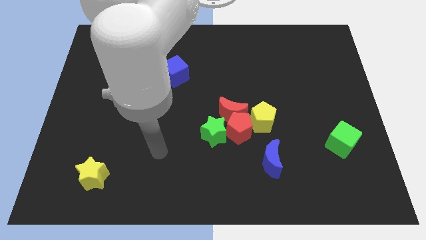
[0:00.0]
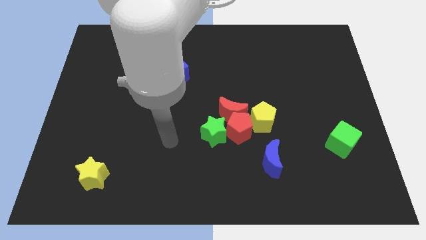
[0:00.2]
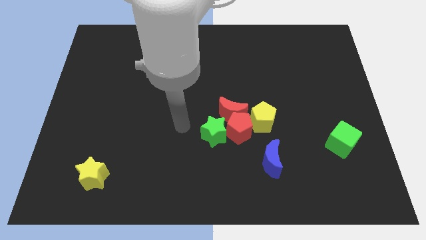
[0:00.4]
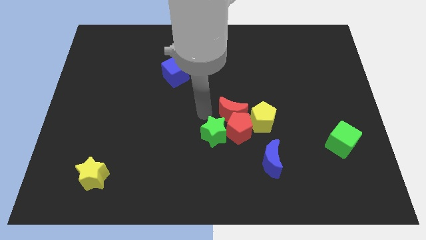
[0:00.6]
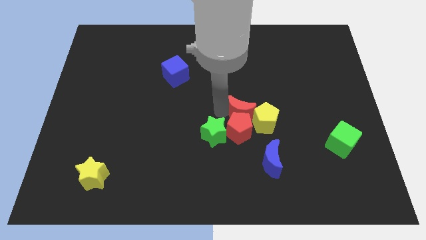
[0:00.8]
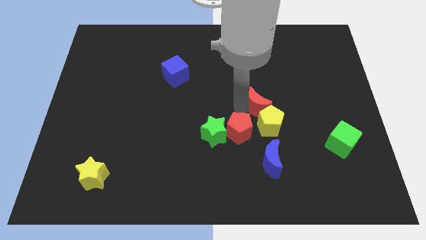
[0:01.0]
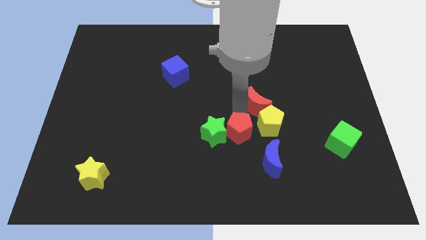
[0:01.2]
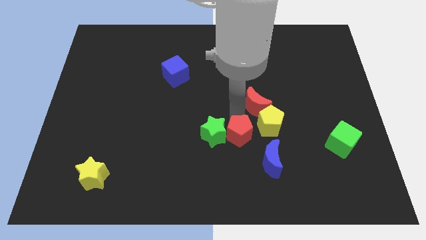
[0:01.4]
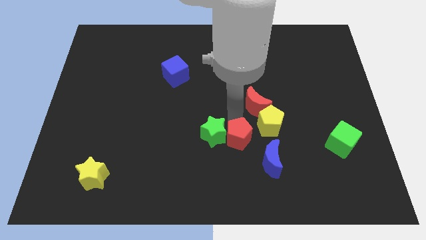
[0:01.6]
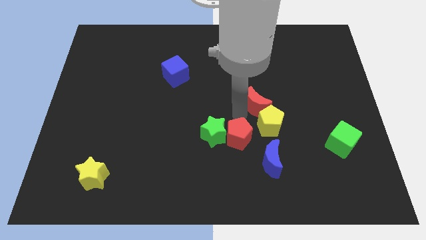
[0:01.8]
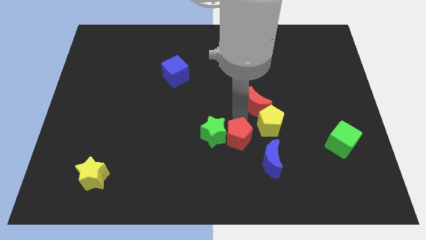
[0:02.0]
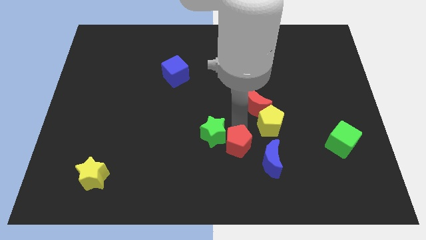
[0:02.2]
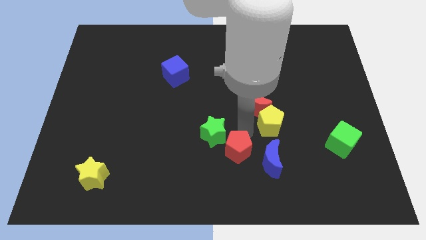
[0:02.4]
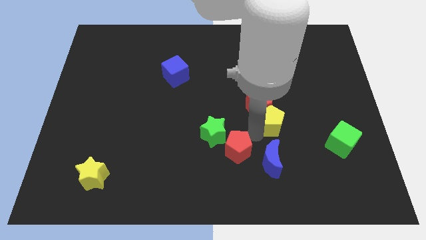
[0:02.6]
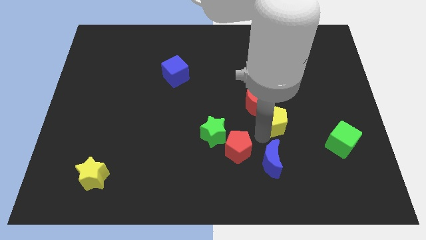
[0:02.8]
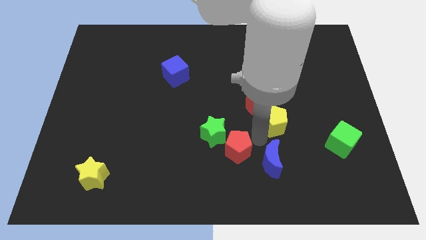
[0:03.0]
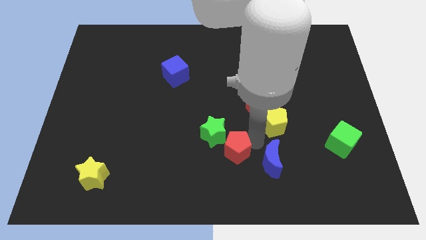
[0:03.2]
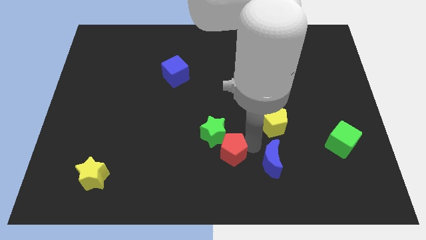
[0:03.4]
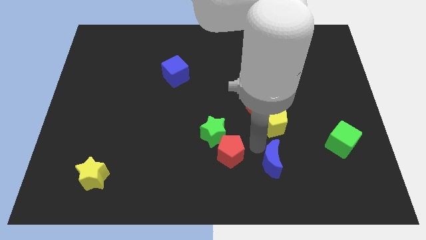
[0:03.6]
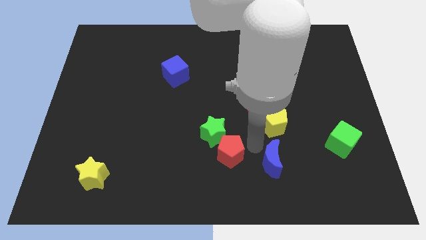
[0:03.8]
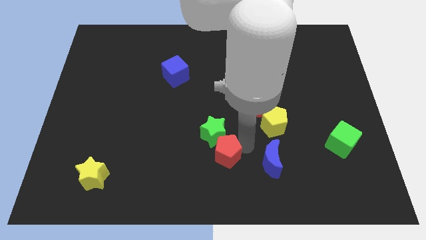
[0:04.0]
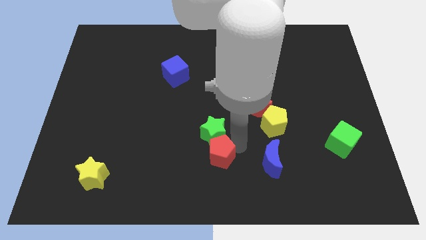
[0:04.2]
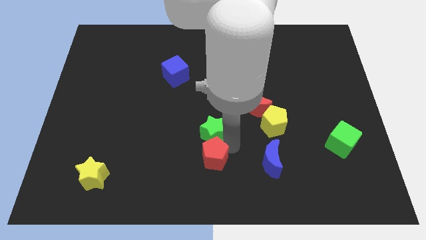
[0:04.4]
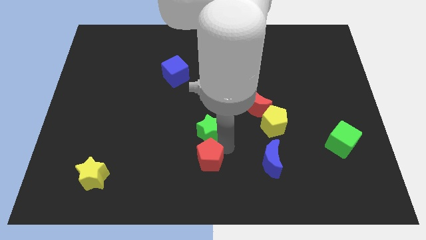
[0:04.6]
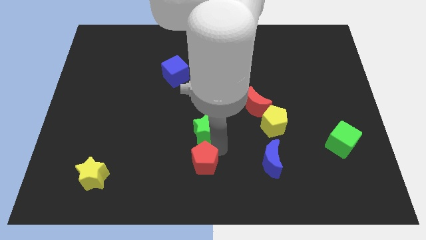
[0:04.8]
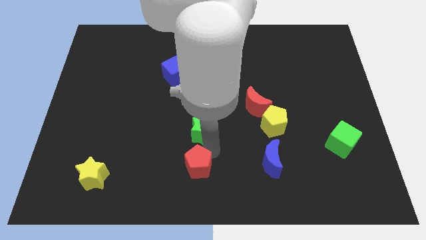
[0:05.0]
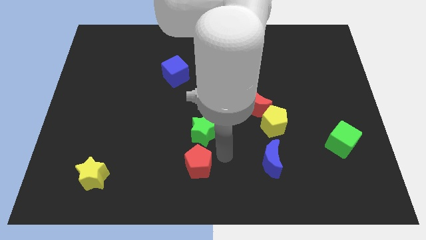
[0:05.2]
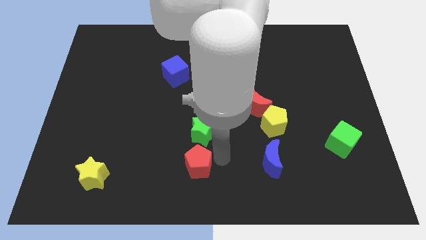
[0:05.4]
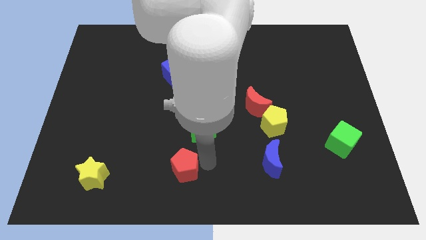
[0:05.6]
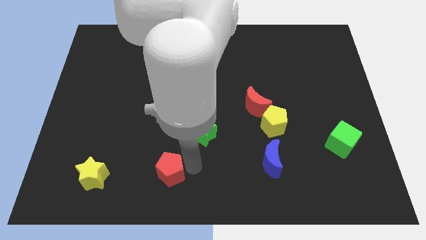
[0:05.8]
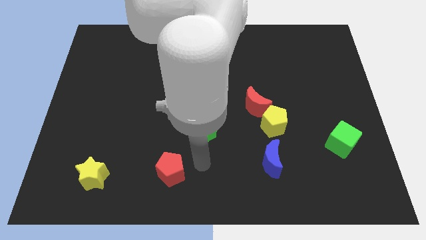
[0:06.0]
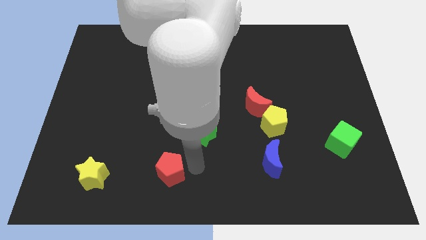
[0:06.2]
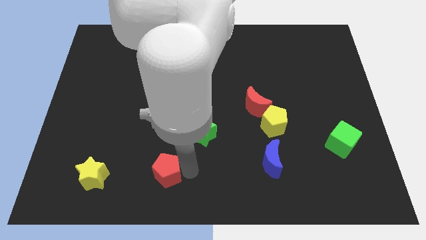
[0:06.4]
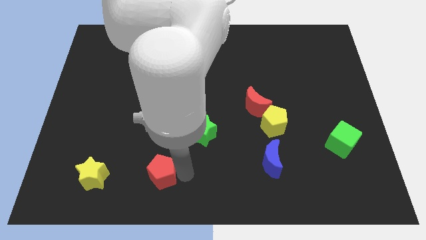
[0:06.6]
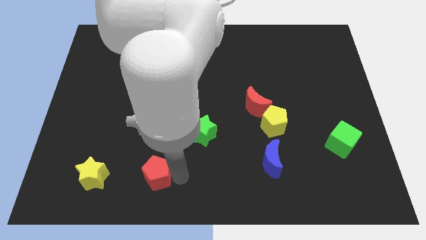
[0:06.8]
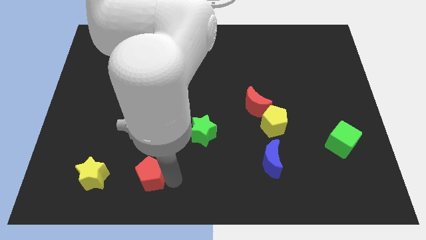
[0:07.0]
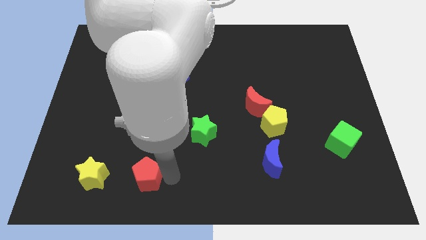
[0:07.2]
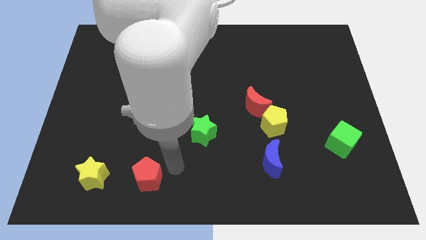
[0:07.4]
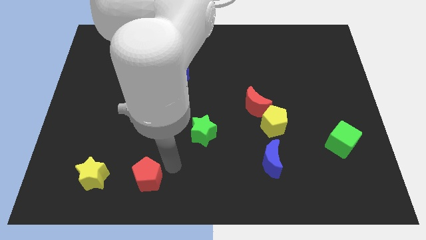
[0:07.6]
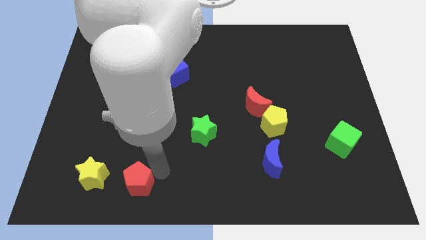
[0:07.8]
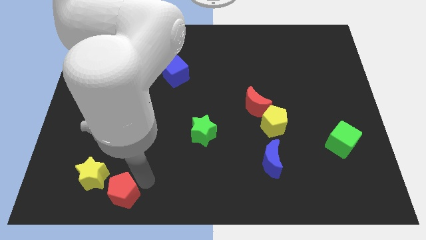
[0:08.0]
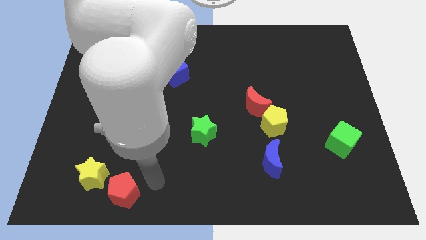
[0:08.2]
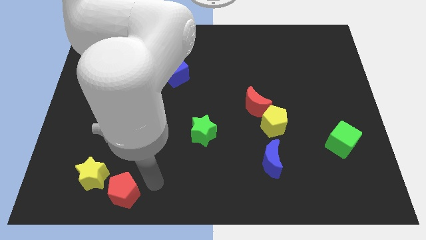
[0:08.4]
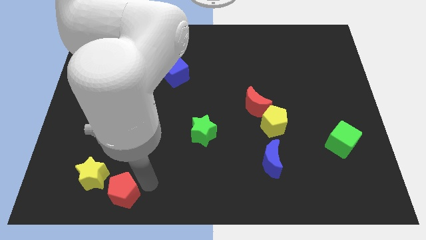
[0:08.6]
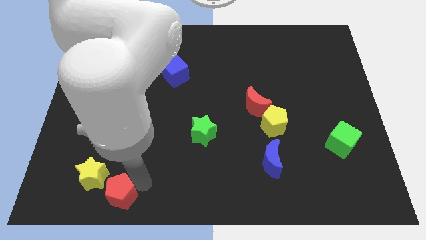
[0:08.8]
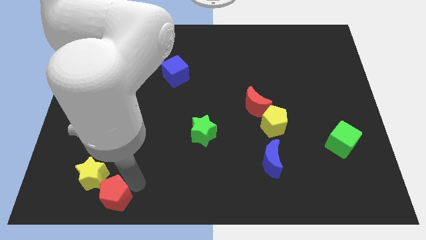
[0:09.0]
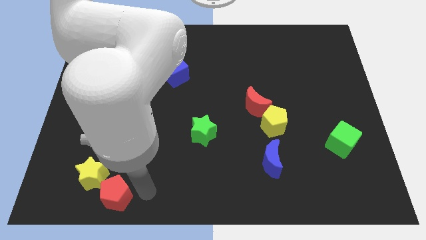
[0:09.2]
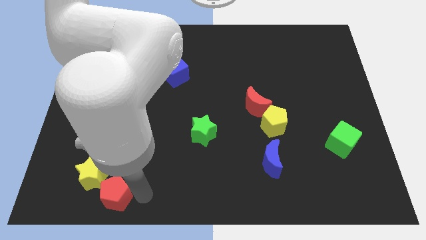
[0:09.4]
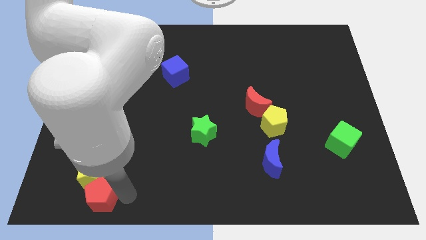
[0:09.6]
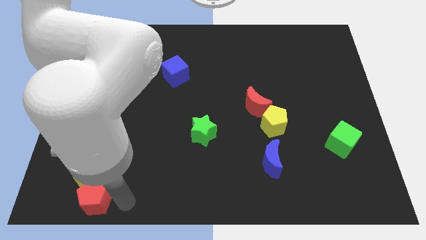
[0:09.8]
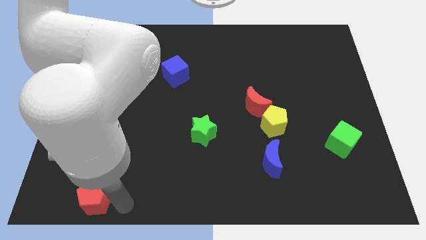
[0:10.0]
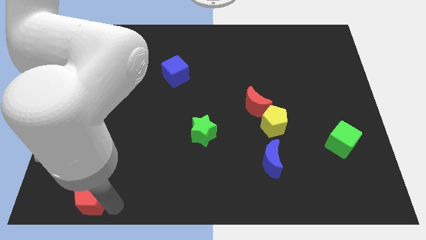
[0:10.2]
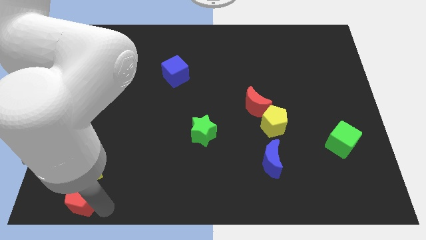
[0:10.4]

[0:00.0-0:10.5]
slide the red pentagon to the bottom left corner
